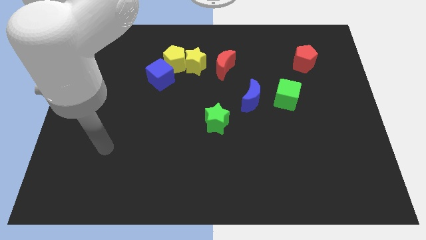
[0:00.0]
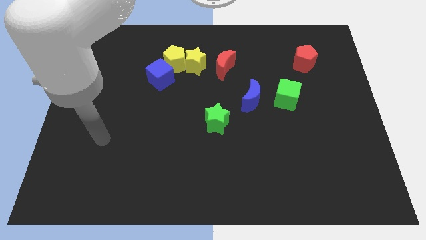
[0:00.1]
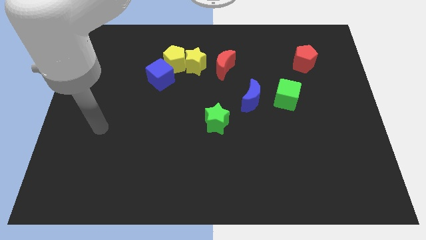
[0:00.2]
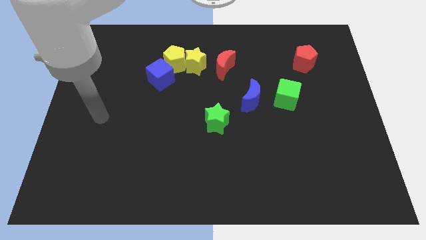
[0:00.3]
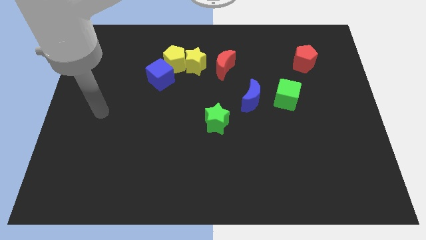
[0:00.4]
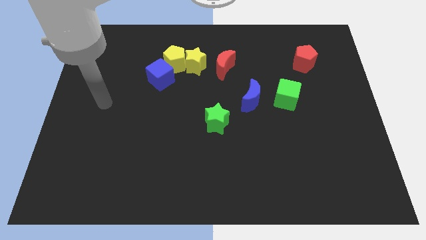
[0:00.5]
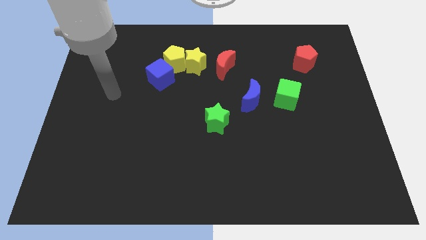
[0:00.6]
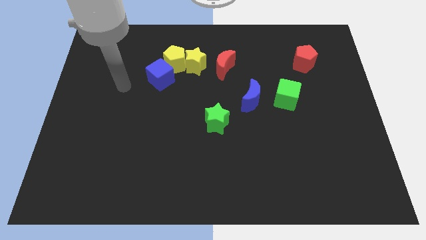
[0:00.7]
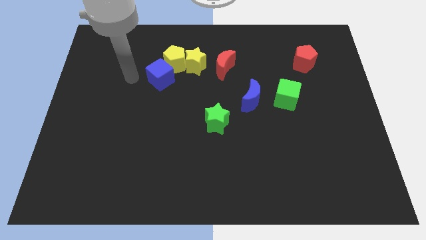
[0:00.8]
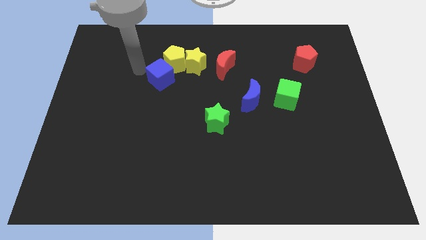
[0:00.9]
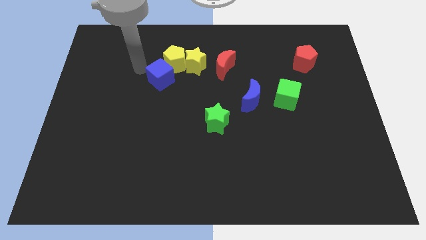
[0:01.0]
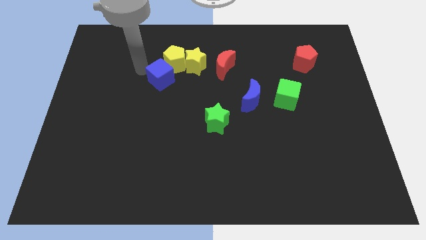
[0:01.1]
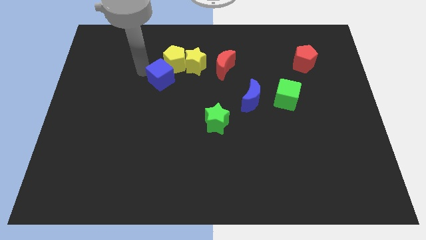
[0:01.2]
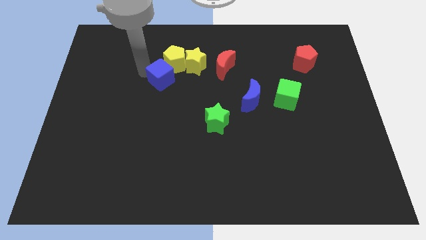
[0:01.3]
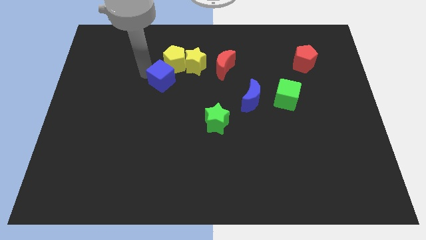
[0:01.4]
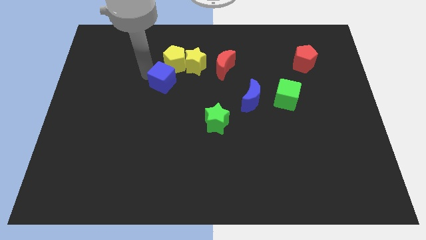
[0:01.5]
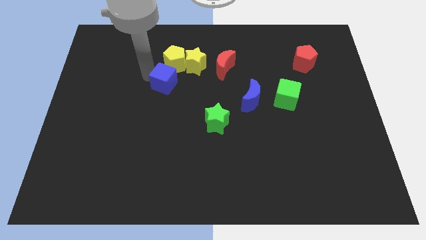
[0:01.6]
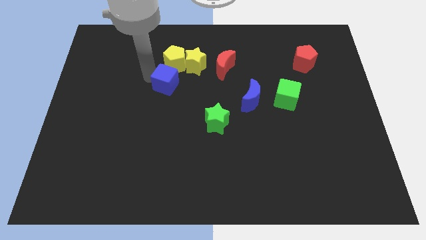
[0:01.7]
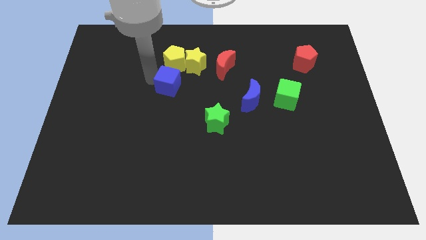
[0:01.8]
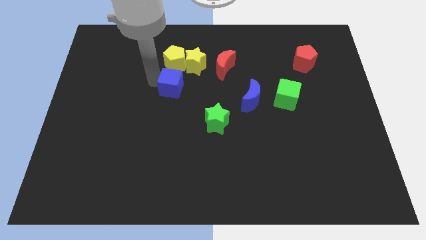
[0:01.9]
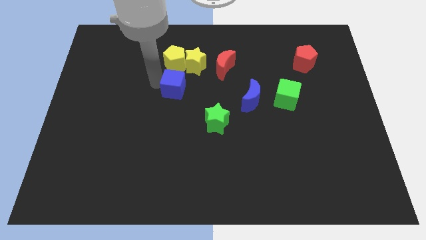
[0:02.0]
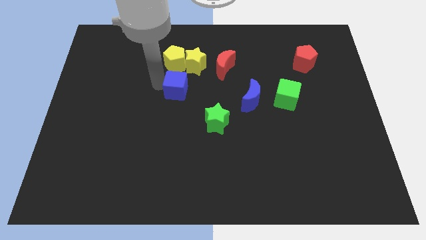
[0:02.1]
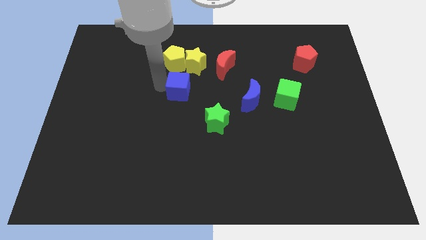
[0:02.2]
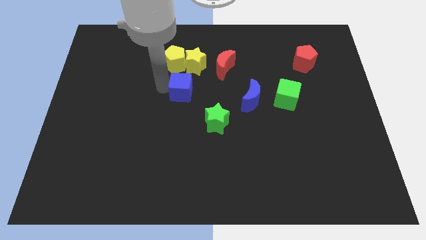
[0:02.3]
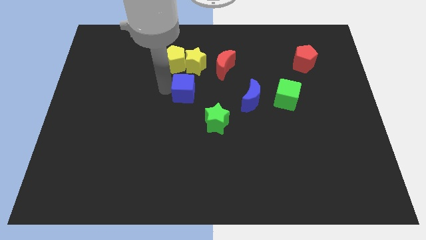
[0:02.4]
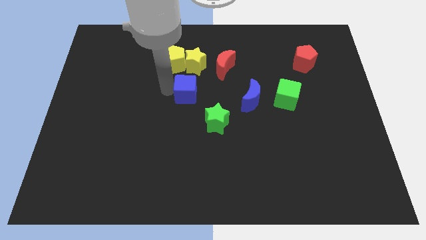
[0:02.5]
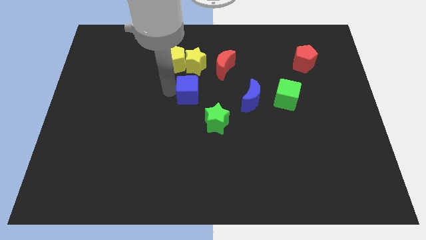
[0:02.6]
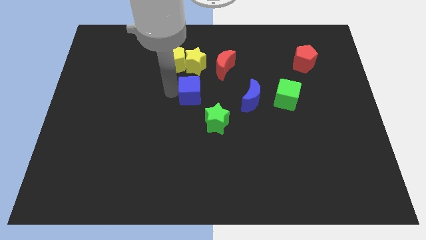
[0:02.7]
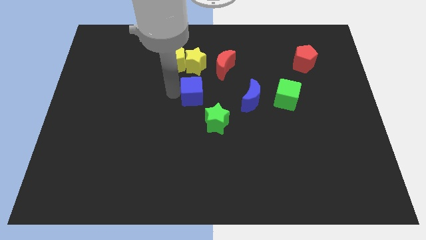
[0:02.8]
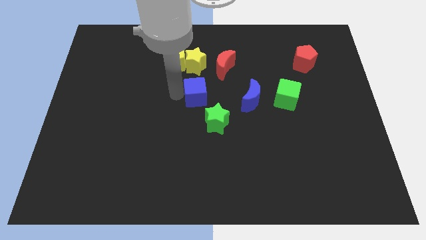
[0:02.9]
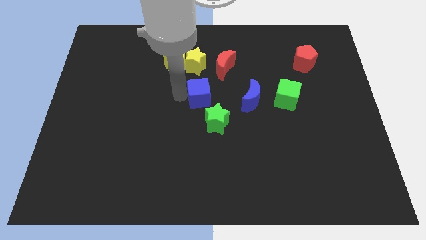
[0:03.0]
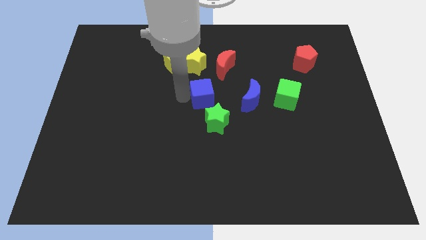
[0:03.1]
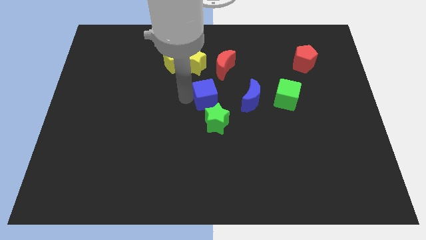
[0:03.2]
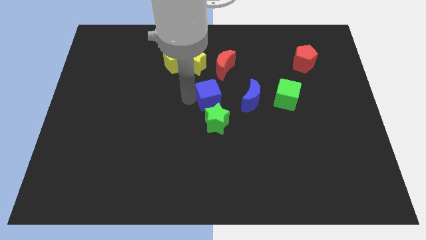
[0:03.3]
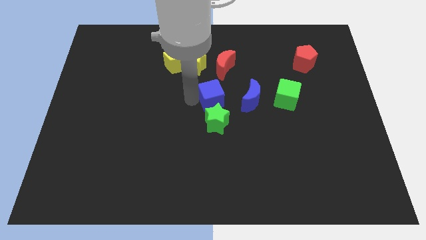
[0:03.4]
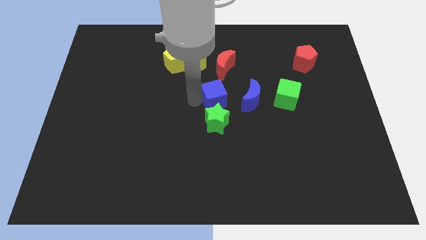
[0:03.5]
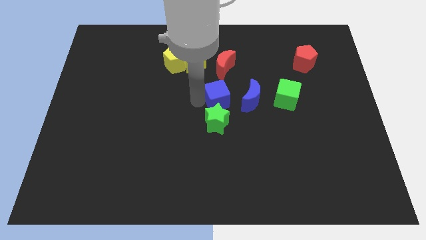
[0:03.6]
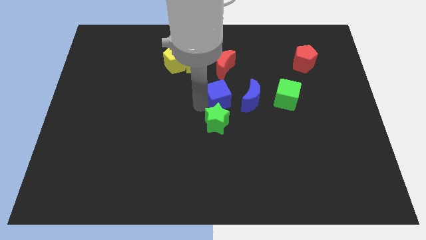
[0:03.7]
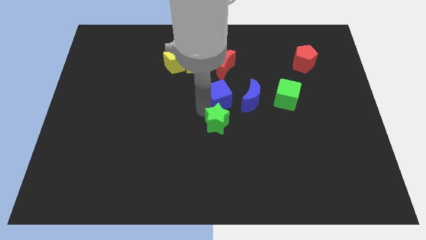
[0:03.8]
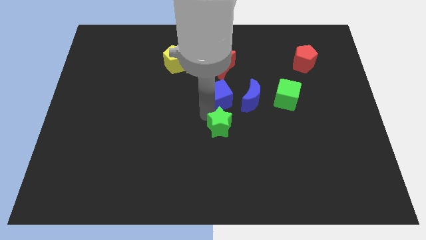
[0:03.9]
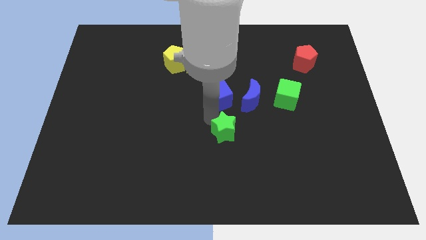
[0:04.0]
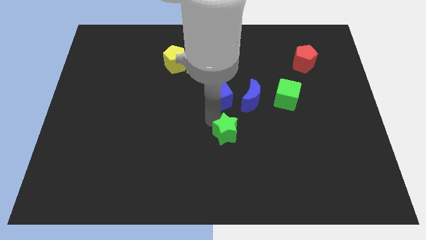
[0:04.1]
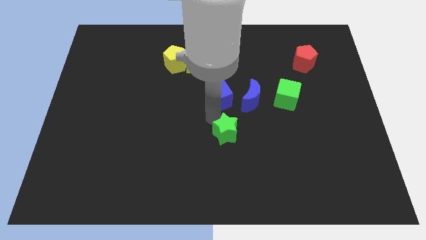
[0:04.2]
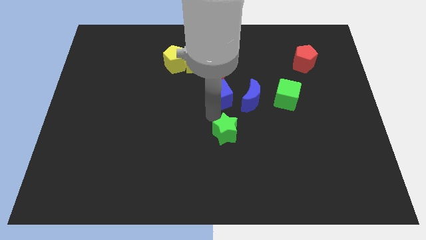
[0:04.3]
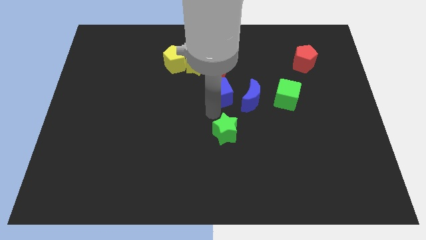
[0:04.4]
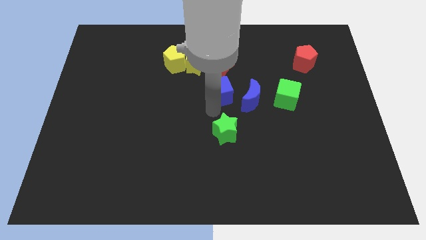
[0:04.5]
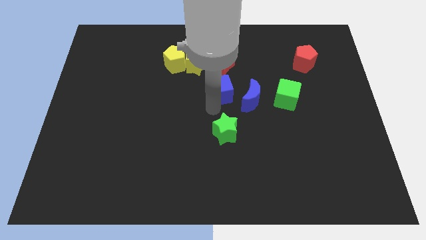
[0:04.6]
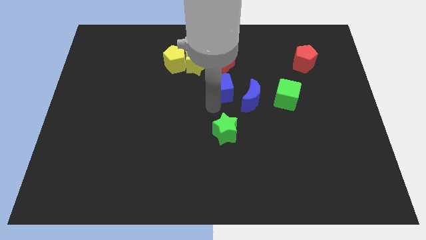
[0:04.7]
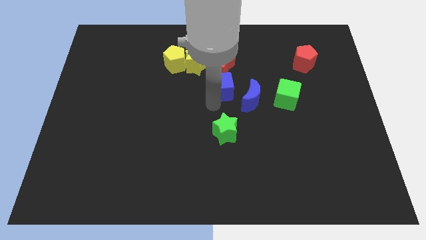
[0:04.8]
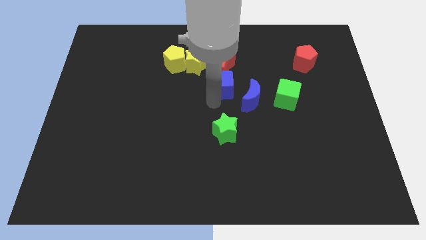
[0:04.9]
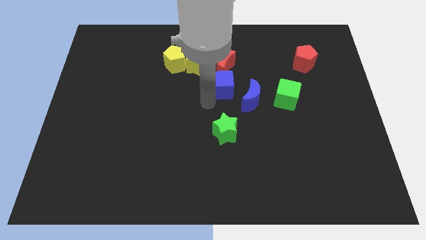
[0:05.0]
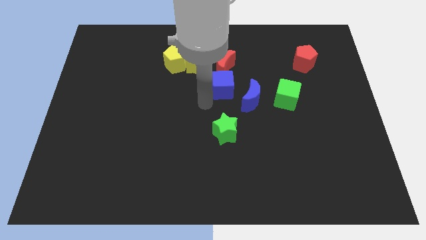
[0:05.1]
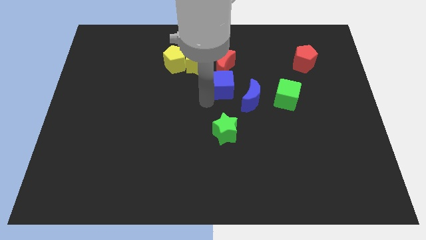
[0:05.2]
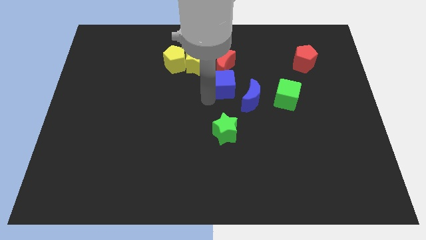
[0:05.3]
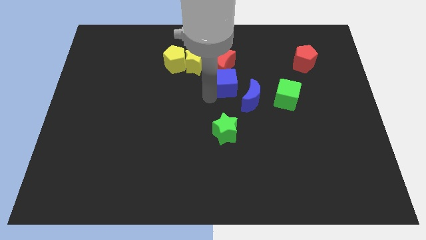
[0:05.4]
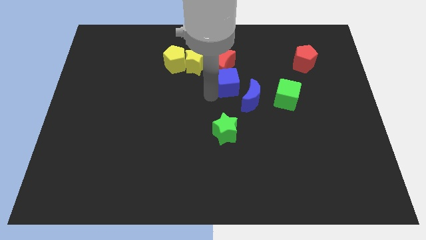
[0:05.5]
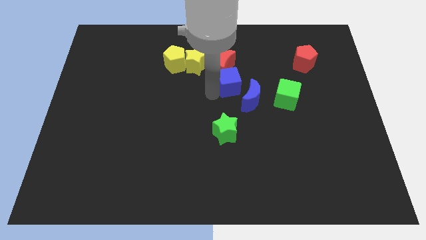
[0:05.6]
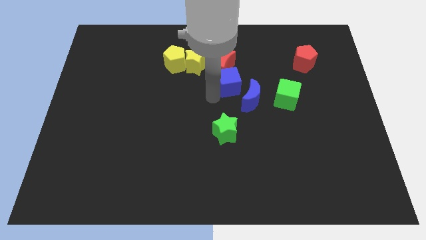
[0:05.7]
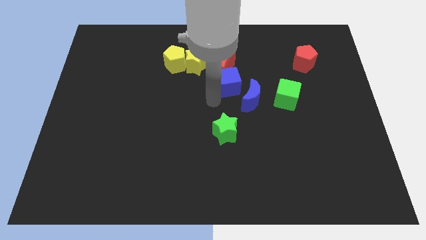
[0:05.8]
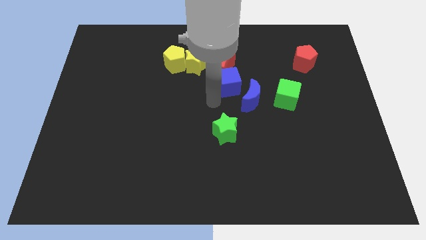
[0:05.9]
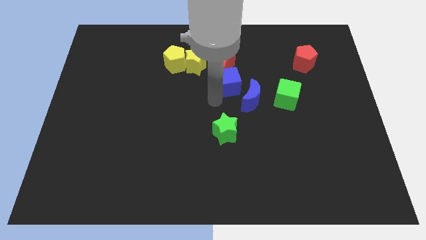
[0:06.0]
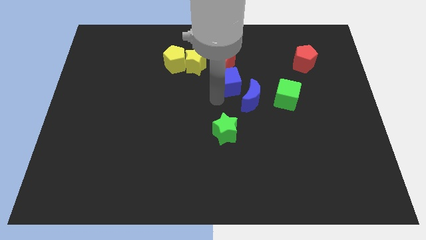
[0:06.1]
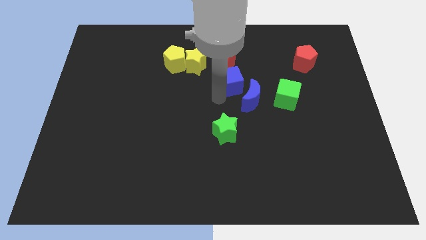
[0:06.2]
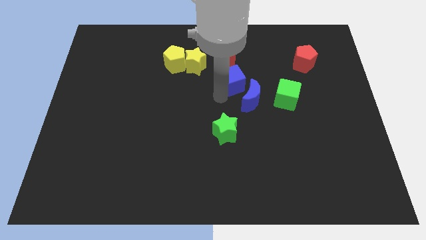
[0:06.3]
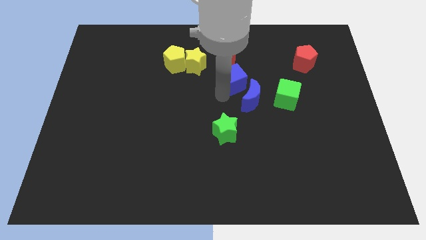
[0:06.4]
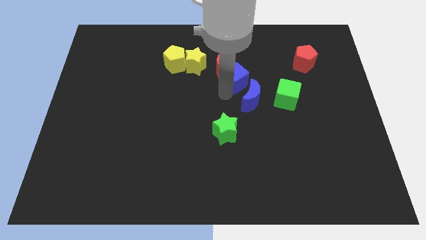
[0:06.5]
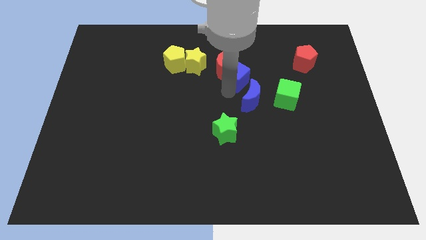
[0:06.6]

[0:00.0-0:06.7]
move the blue cube to the right of the red moon

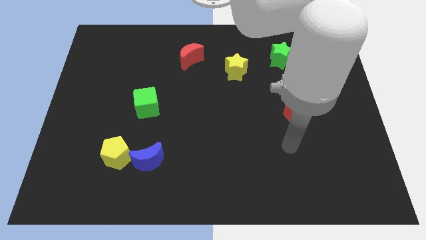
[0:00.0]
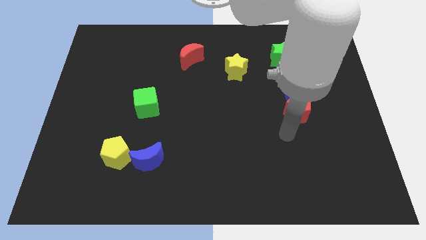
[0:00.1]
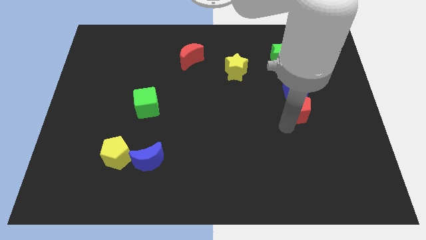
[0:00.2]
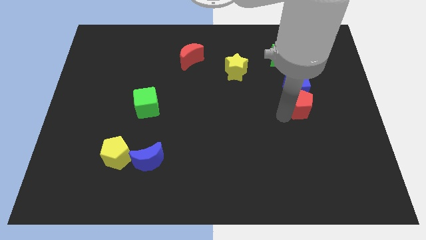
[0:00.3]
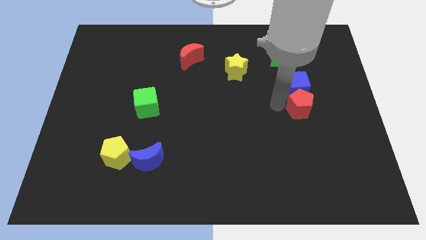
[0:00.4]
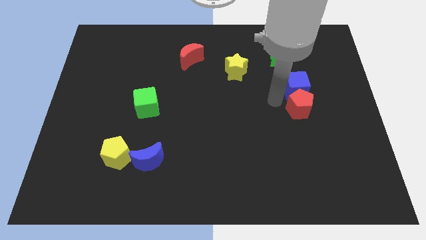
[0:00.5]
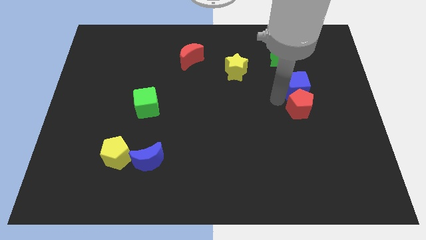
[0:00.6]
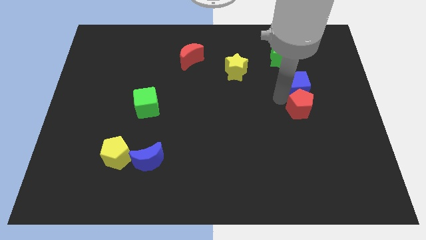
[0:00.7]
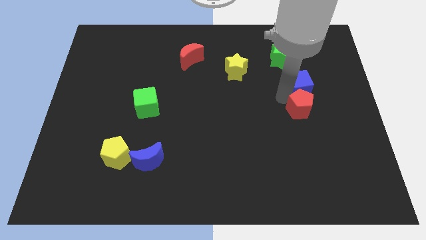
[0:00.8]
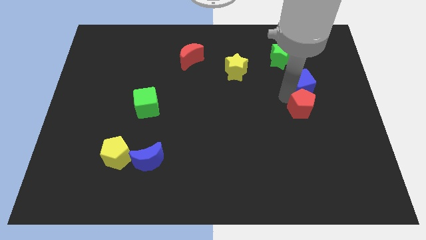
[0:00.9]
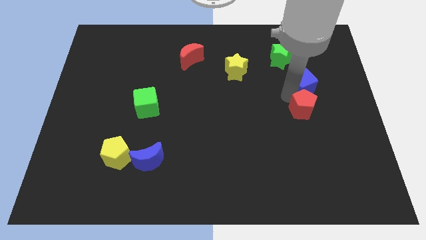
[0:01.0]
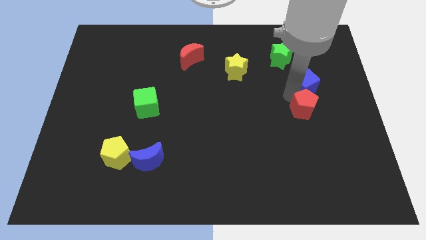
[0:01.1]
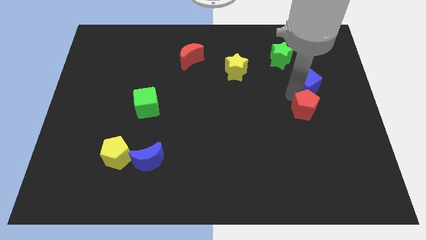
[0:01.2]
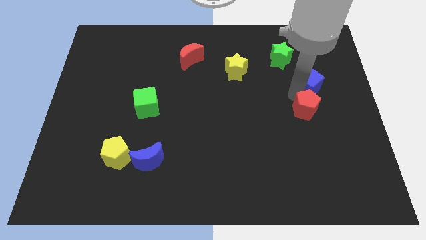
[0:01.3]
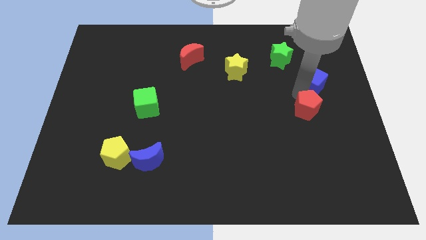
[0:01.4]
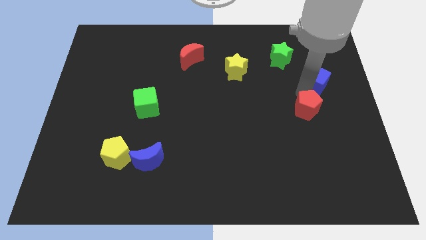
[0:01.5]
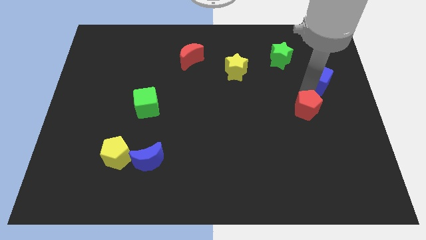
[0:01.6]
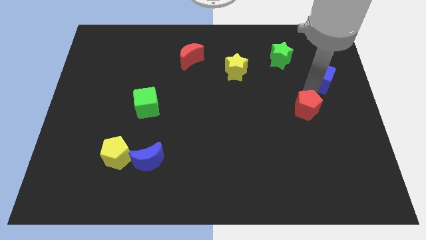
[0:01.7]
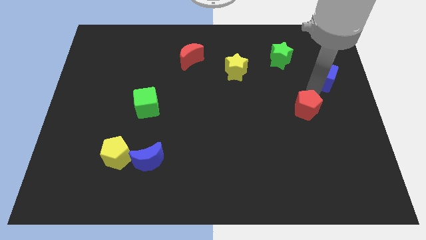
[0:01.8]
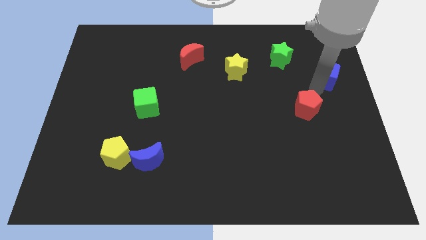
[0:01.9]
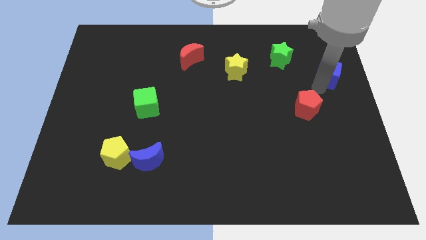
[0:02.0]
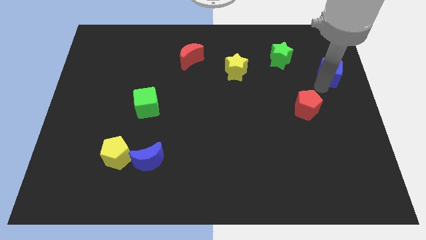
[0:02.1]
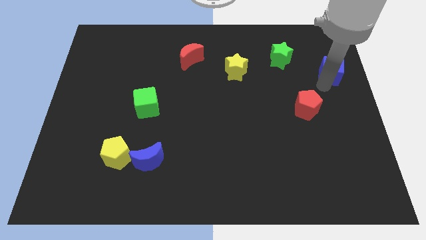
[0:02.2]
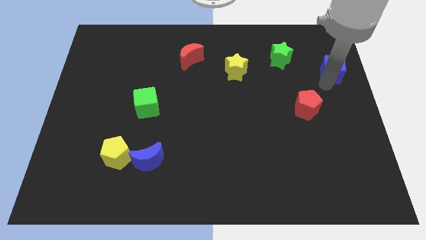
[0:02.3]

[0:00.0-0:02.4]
put the blue cube right of the green star
